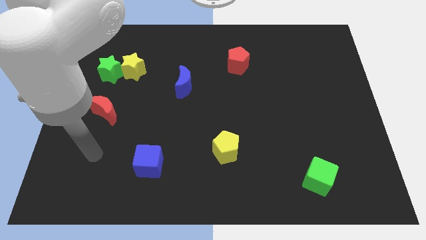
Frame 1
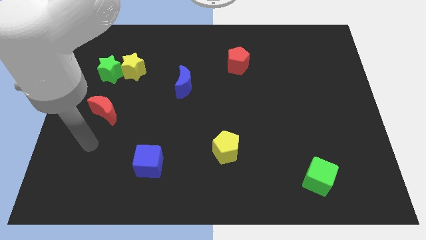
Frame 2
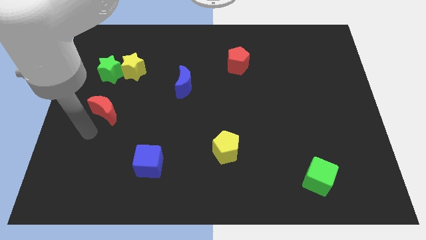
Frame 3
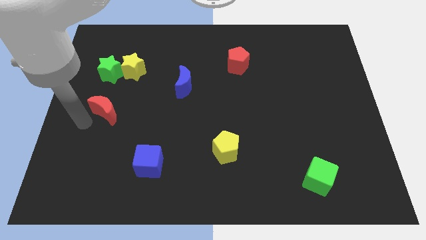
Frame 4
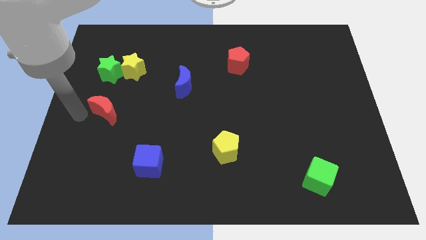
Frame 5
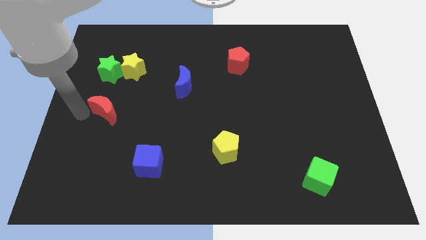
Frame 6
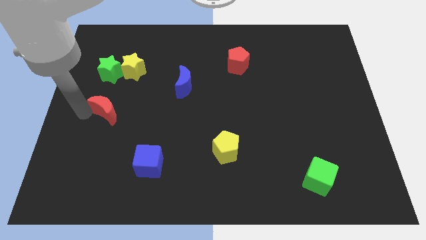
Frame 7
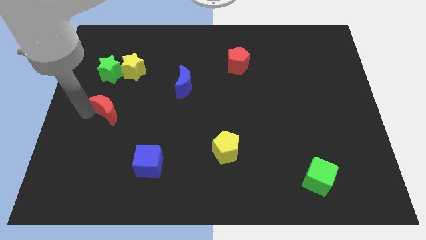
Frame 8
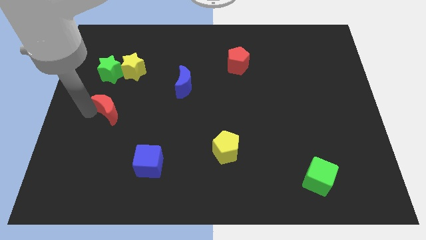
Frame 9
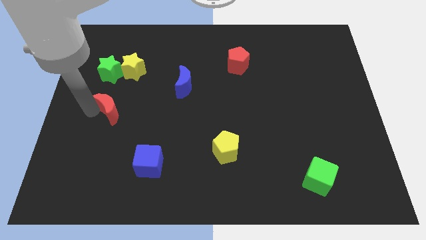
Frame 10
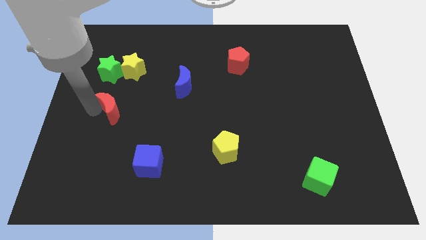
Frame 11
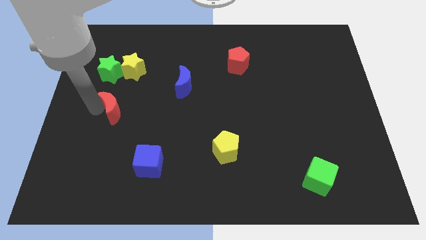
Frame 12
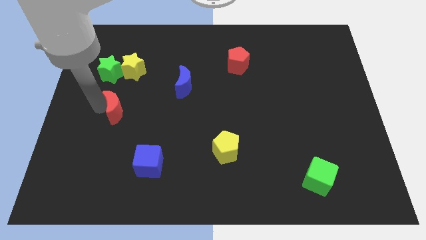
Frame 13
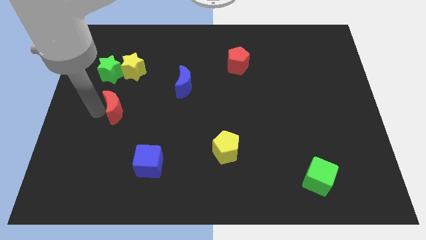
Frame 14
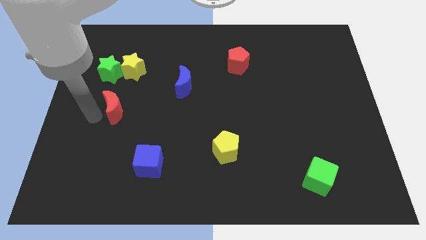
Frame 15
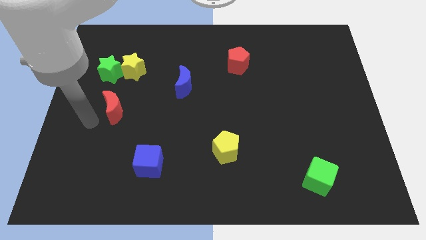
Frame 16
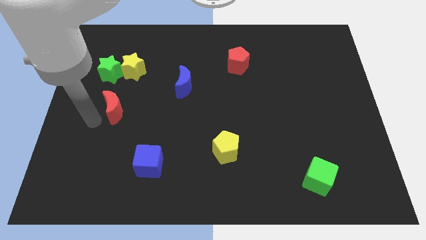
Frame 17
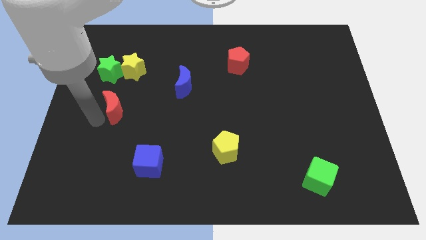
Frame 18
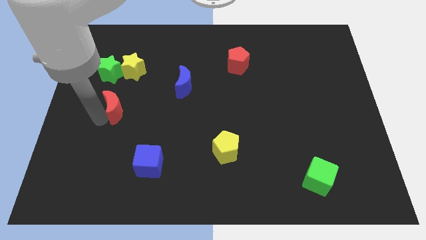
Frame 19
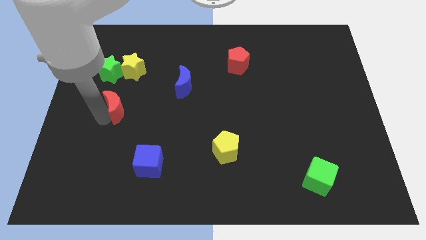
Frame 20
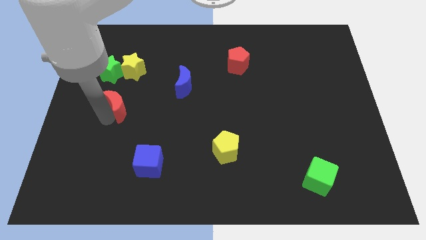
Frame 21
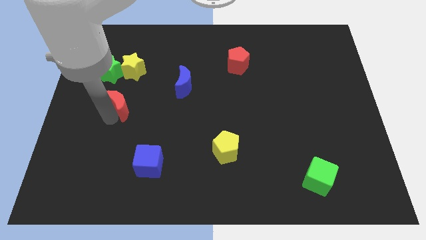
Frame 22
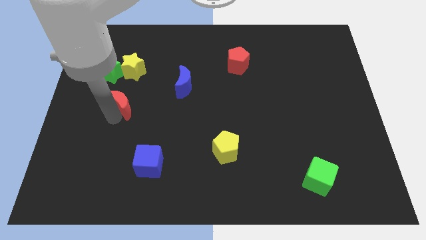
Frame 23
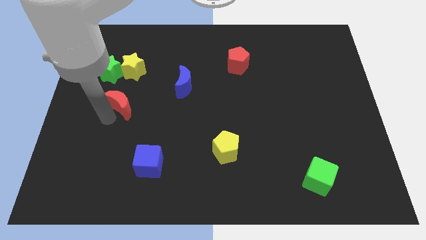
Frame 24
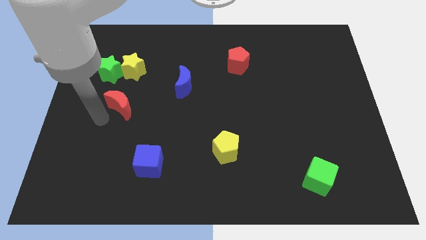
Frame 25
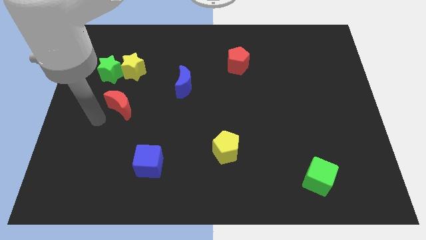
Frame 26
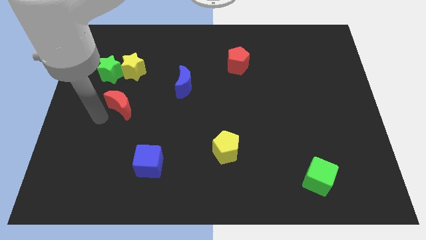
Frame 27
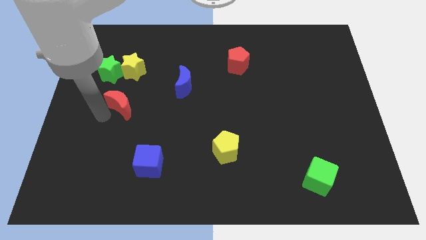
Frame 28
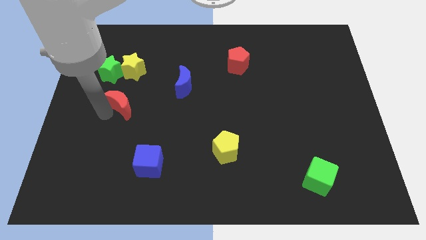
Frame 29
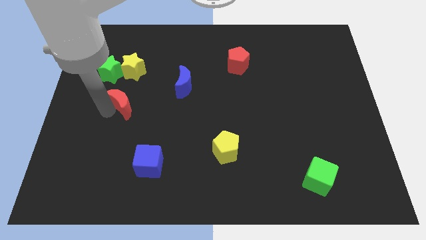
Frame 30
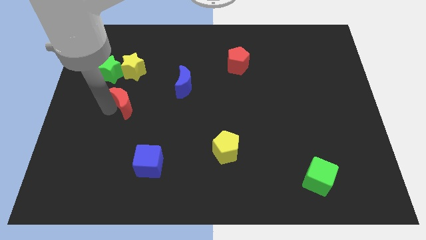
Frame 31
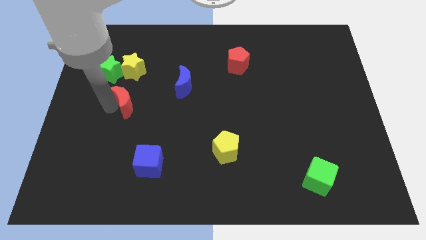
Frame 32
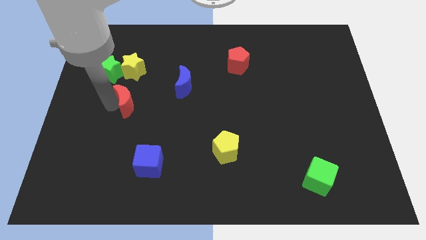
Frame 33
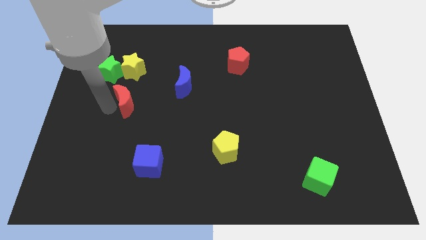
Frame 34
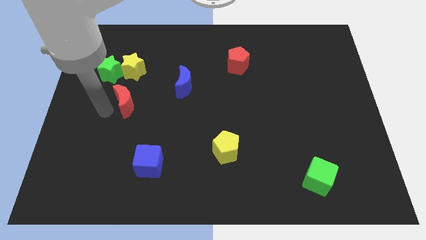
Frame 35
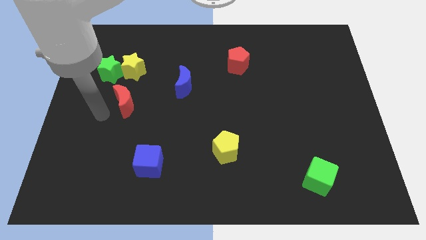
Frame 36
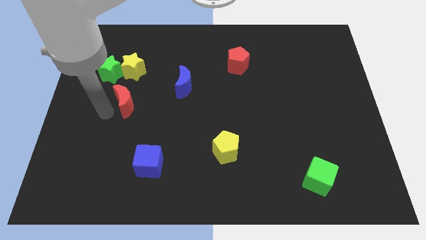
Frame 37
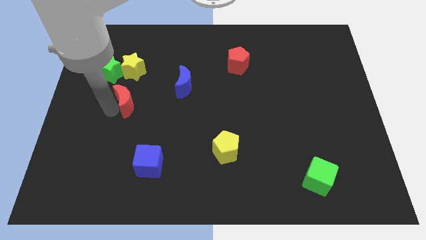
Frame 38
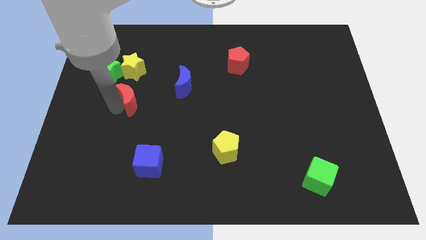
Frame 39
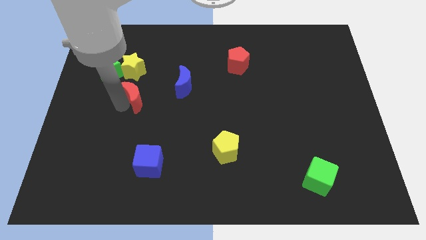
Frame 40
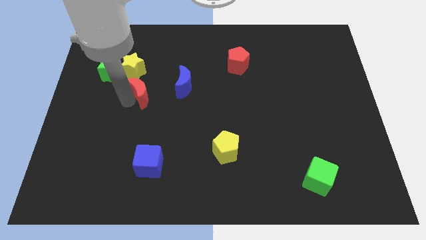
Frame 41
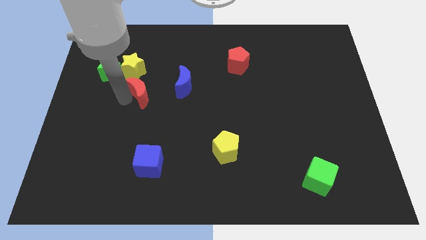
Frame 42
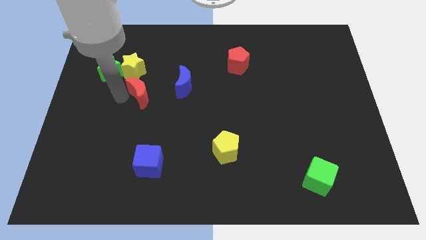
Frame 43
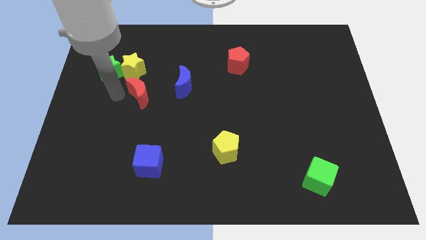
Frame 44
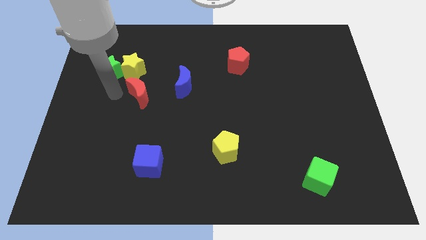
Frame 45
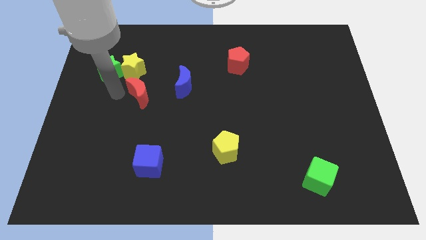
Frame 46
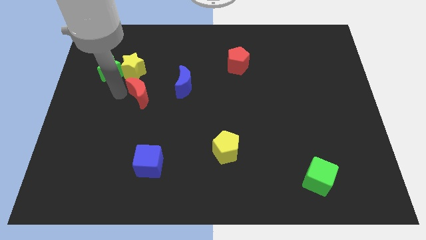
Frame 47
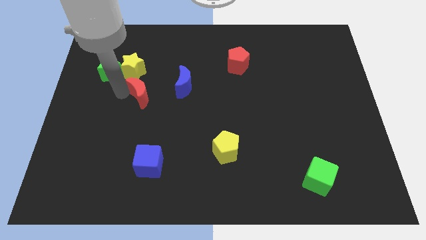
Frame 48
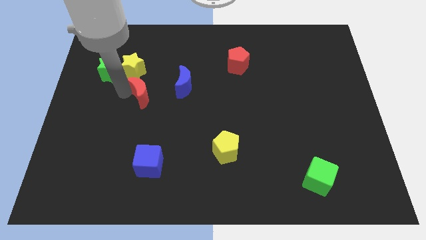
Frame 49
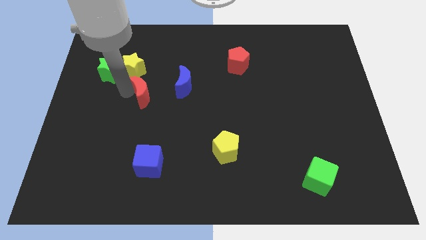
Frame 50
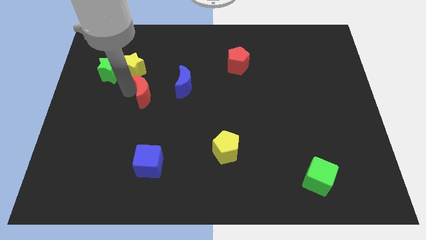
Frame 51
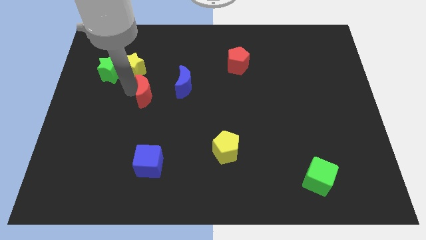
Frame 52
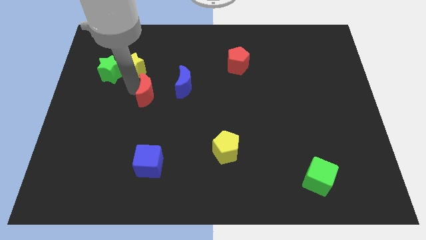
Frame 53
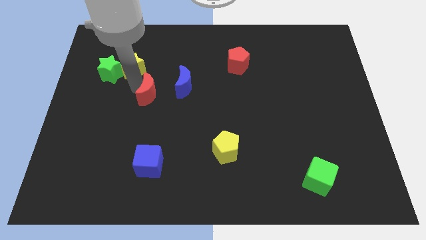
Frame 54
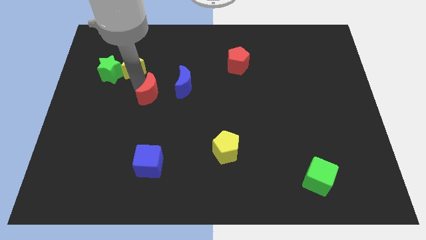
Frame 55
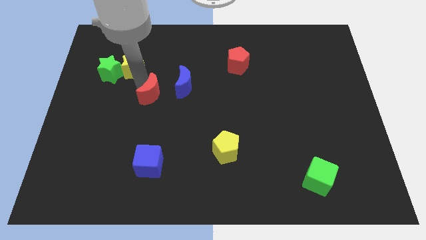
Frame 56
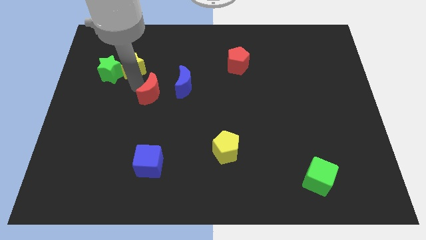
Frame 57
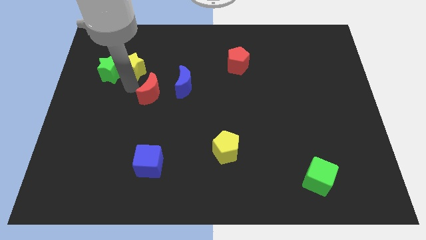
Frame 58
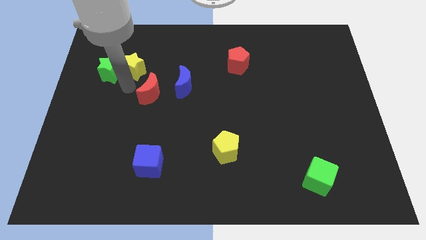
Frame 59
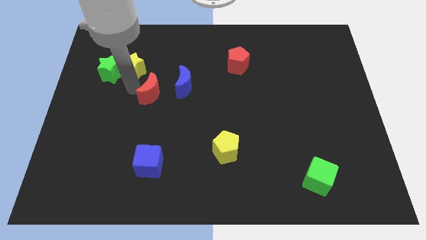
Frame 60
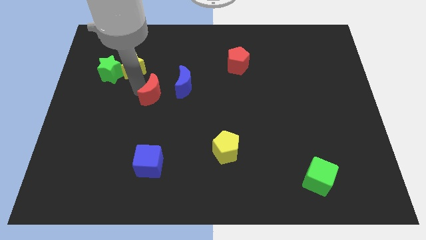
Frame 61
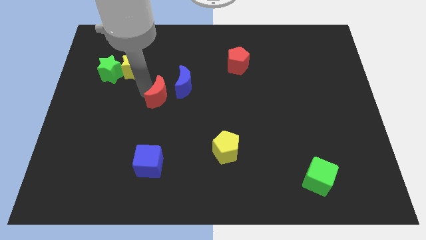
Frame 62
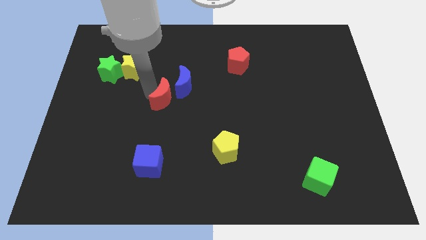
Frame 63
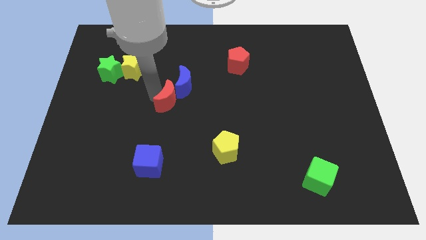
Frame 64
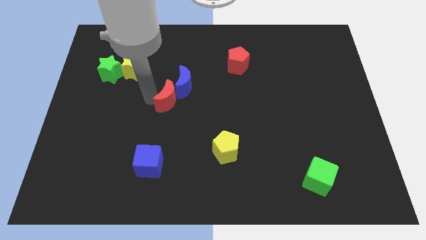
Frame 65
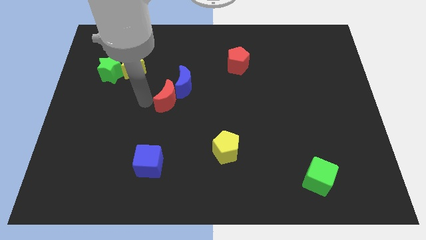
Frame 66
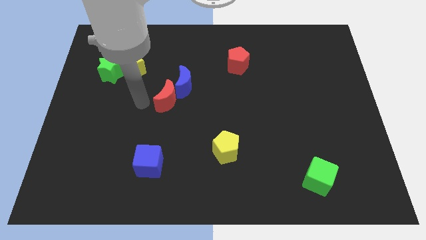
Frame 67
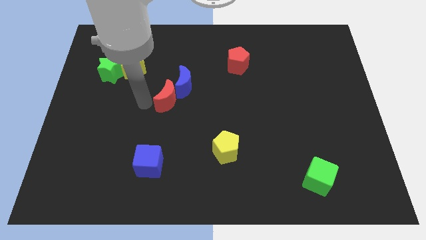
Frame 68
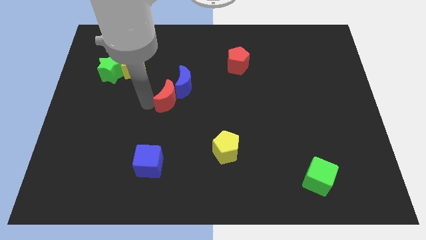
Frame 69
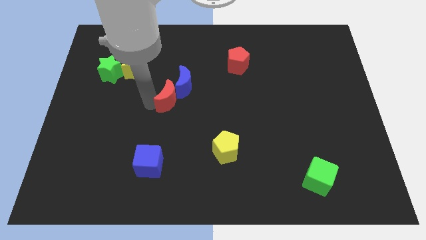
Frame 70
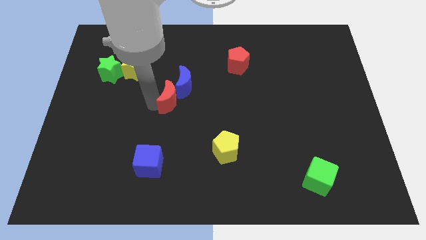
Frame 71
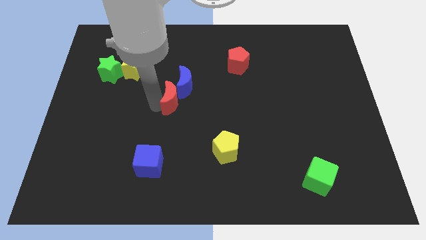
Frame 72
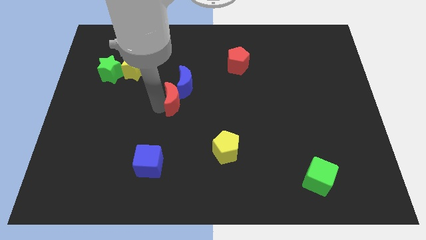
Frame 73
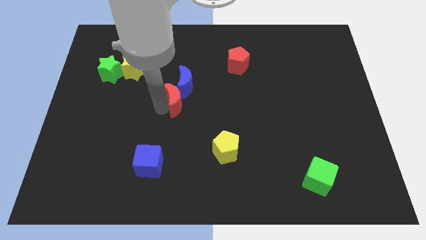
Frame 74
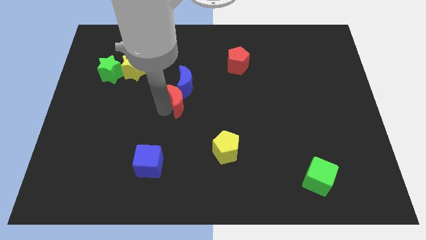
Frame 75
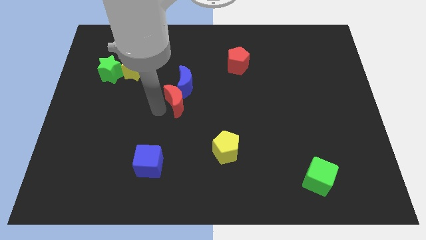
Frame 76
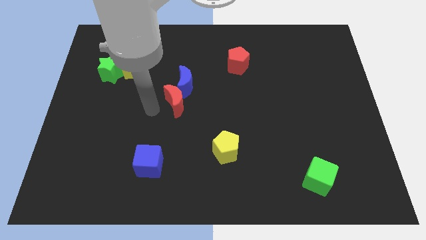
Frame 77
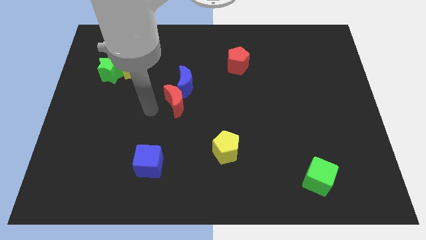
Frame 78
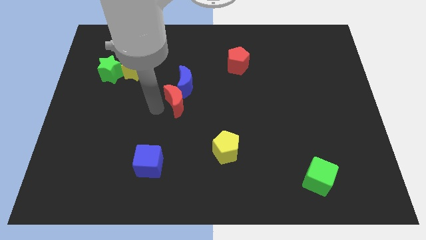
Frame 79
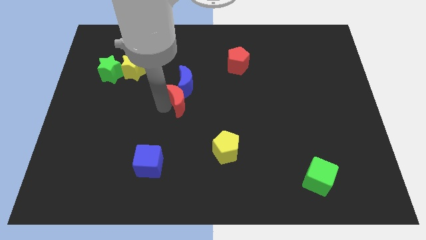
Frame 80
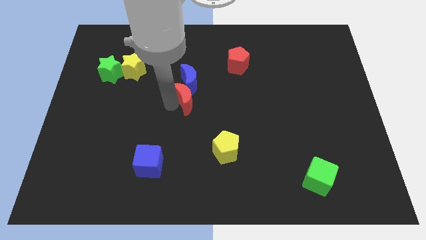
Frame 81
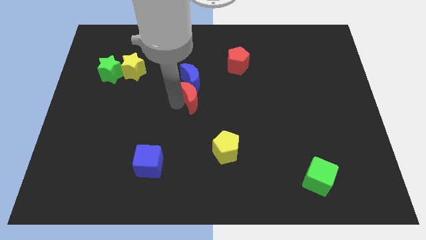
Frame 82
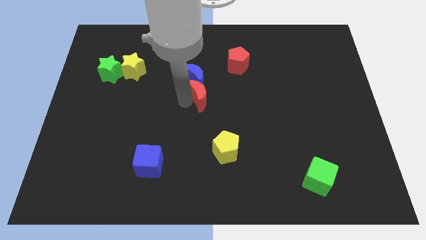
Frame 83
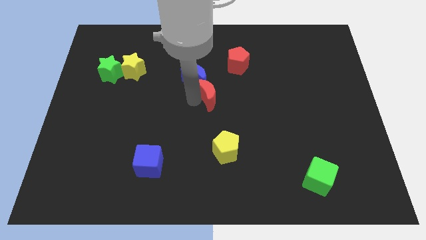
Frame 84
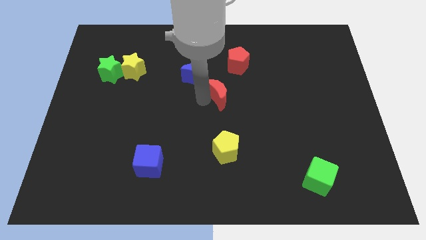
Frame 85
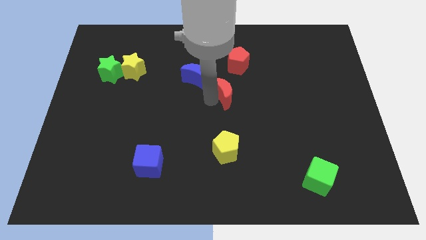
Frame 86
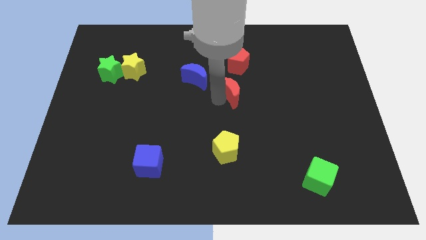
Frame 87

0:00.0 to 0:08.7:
slide the red moon to the right side of the blue moon
